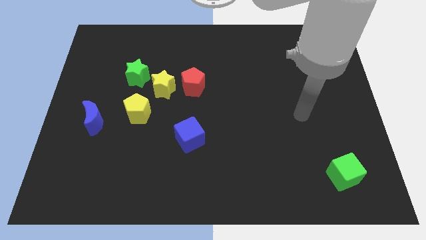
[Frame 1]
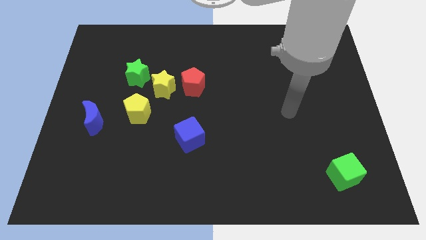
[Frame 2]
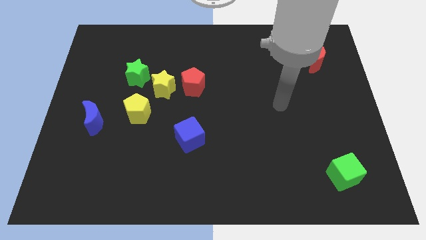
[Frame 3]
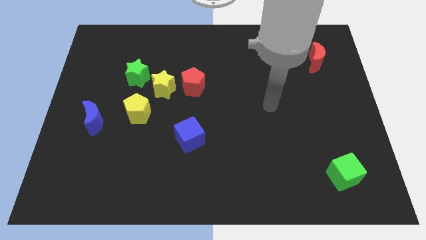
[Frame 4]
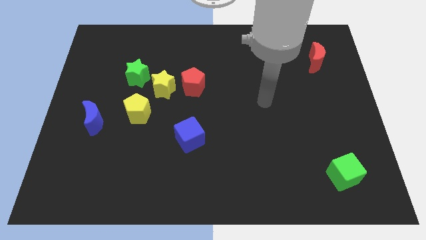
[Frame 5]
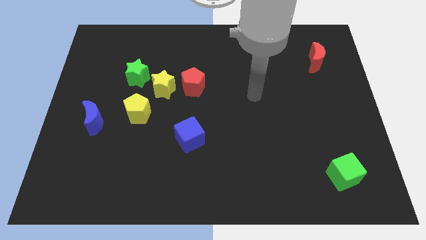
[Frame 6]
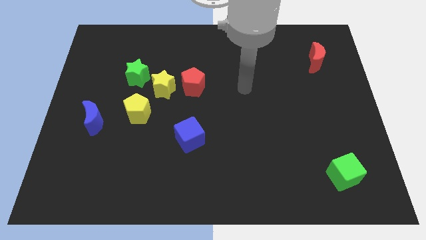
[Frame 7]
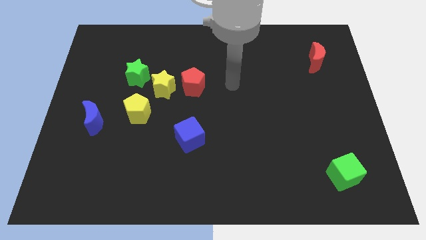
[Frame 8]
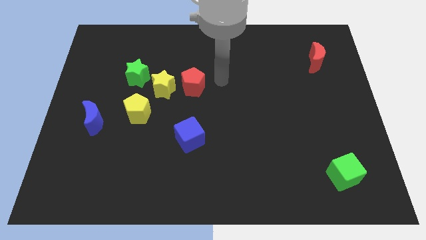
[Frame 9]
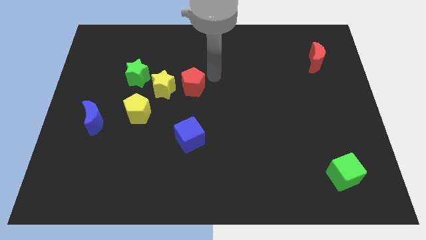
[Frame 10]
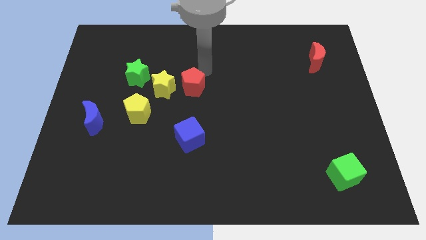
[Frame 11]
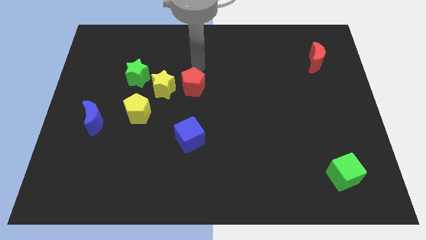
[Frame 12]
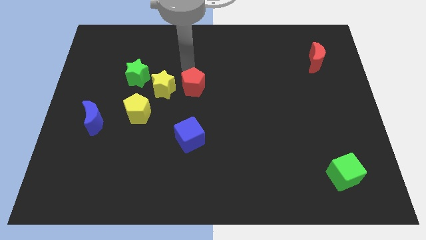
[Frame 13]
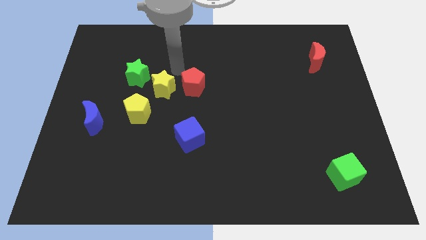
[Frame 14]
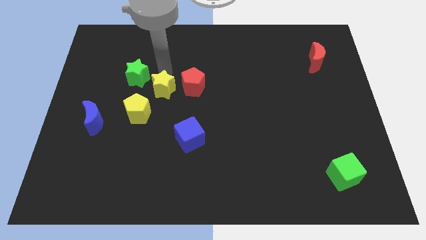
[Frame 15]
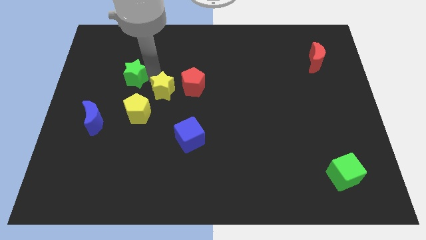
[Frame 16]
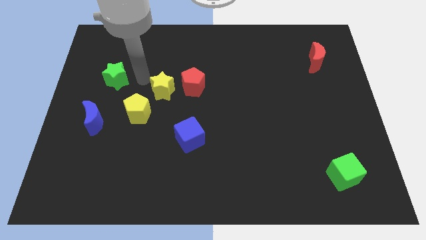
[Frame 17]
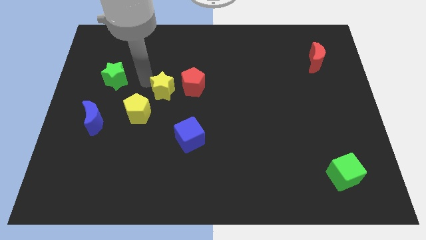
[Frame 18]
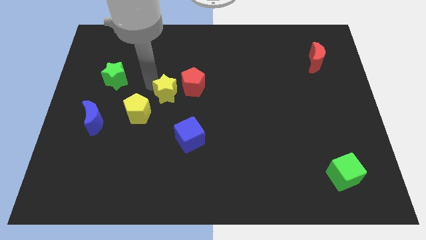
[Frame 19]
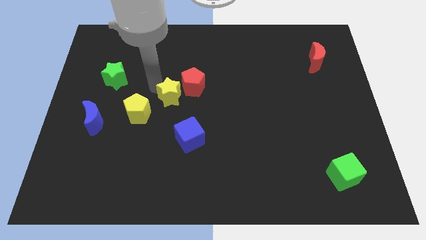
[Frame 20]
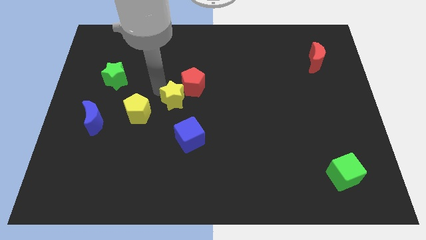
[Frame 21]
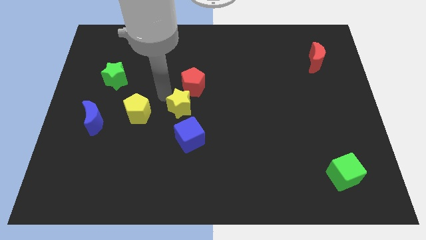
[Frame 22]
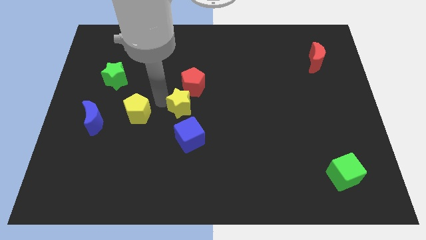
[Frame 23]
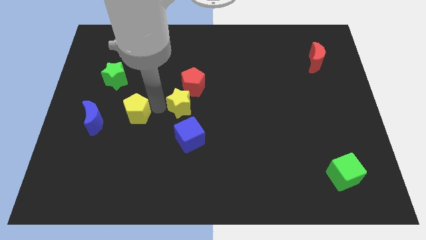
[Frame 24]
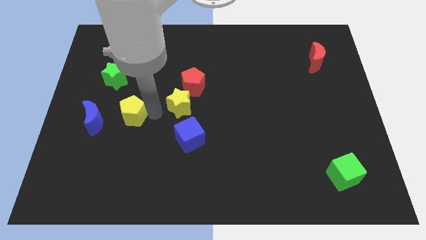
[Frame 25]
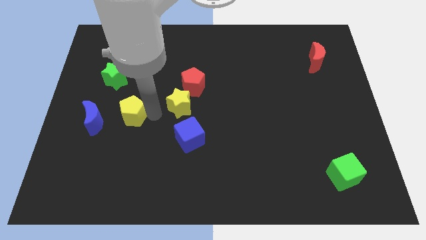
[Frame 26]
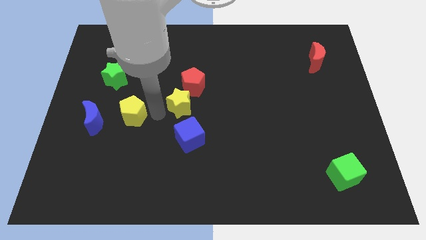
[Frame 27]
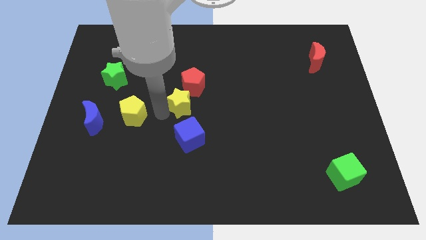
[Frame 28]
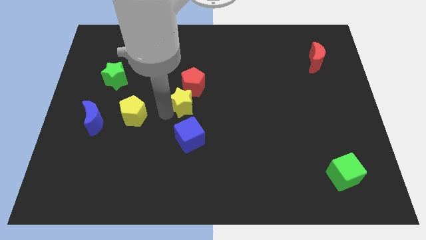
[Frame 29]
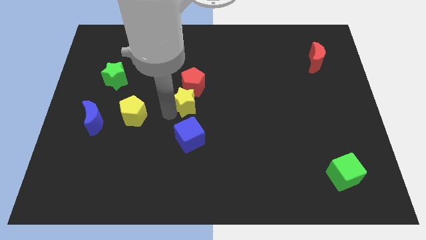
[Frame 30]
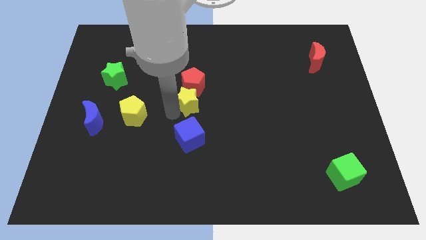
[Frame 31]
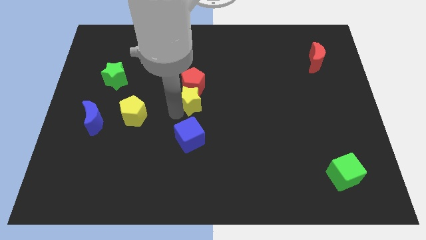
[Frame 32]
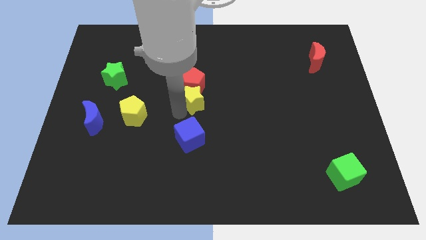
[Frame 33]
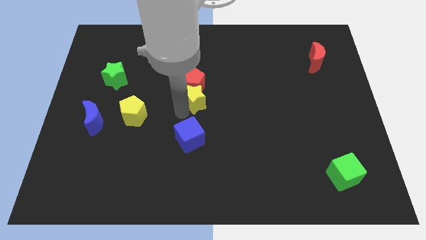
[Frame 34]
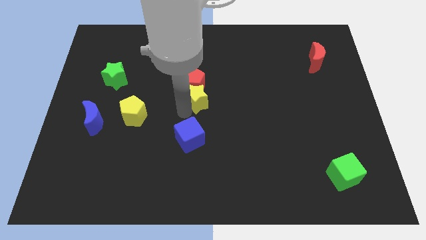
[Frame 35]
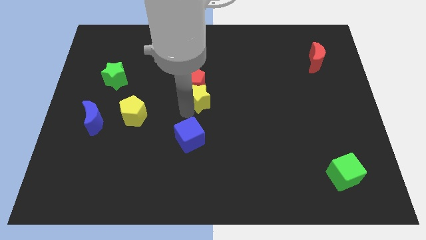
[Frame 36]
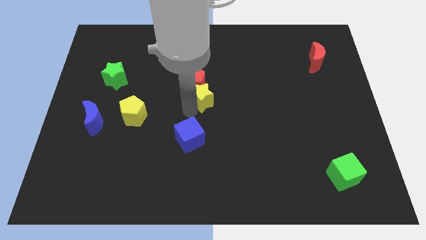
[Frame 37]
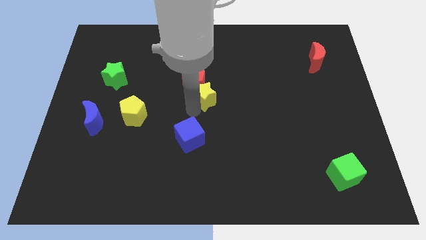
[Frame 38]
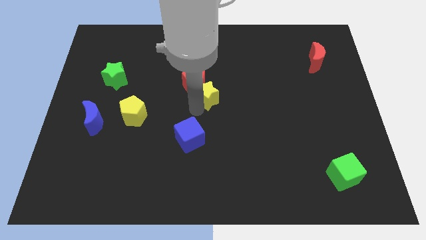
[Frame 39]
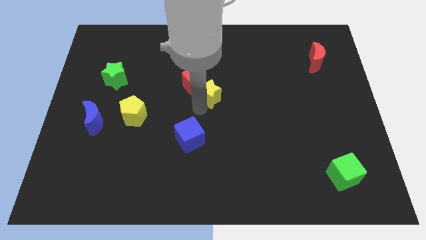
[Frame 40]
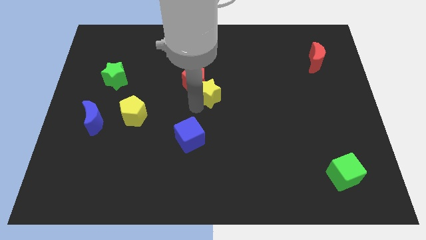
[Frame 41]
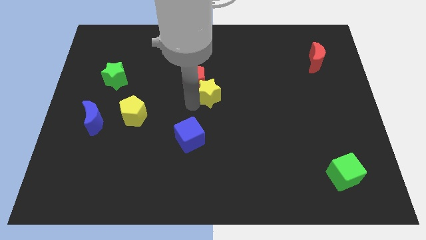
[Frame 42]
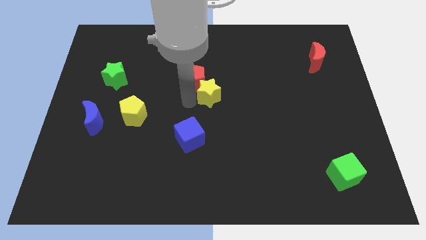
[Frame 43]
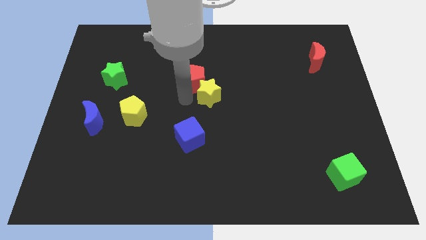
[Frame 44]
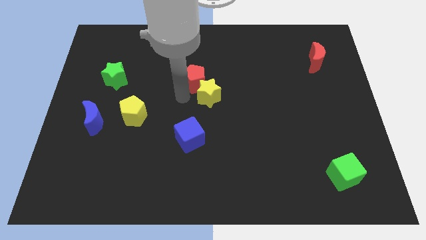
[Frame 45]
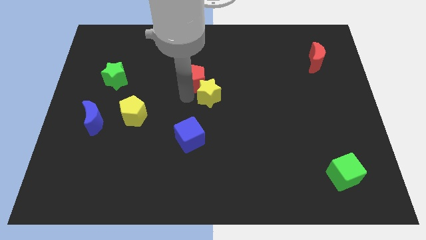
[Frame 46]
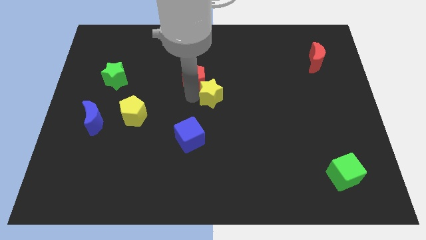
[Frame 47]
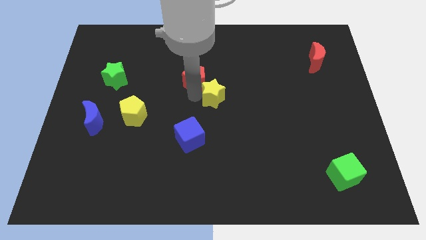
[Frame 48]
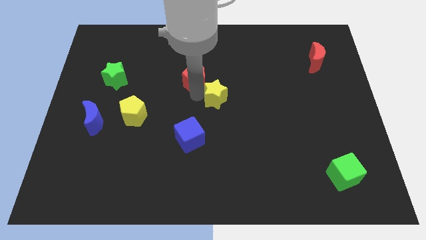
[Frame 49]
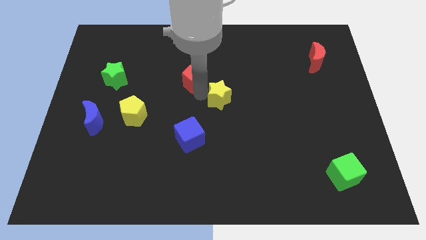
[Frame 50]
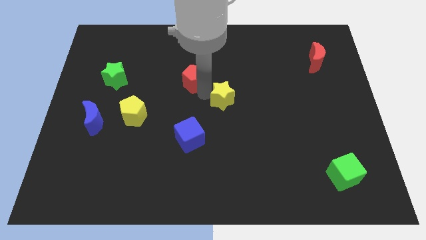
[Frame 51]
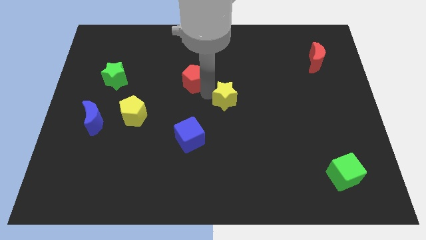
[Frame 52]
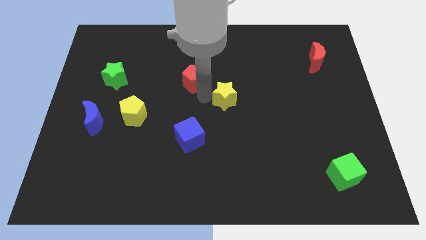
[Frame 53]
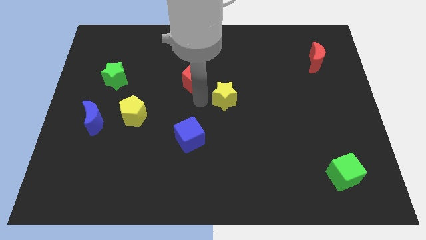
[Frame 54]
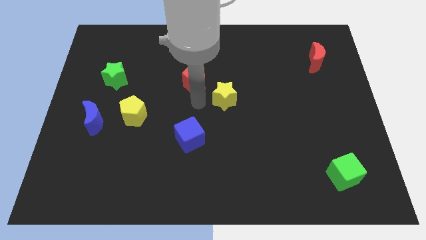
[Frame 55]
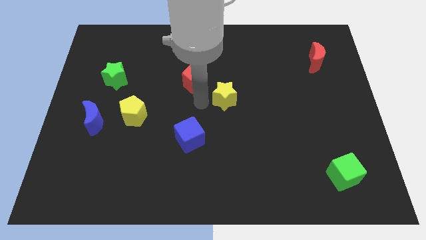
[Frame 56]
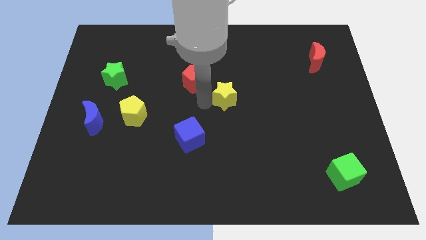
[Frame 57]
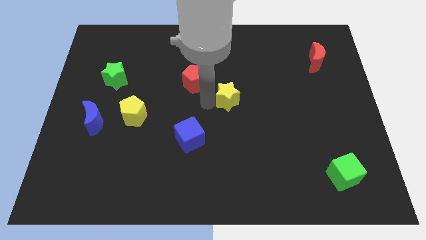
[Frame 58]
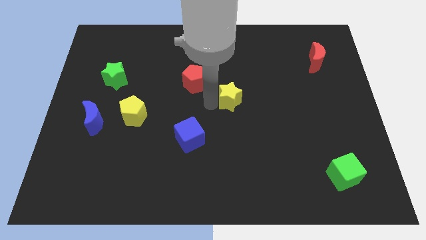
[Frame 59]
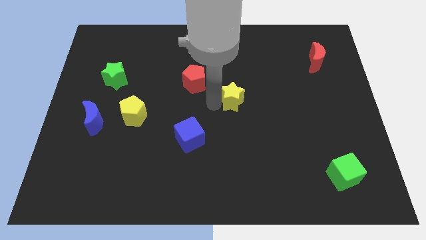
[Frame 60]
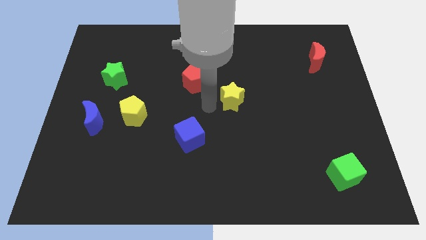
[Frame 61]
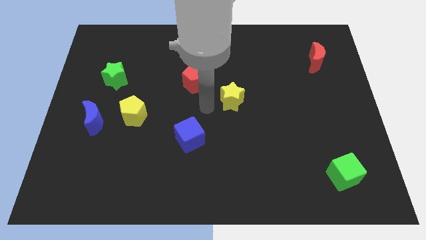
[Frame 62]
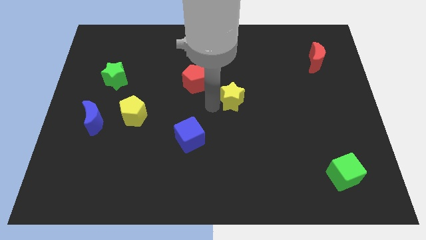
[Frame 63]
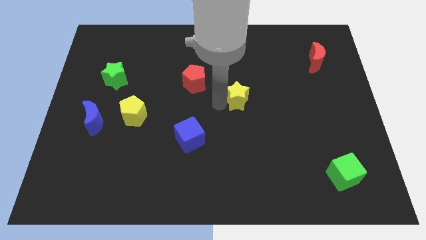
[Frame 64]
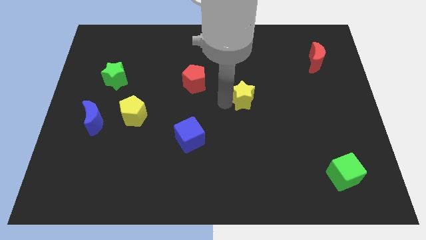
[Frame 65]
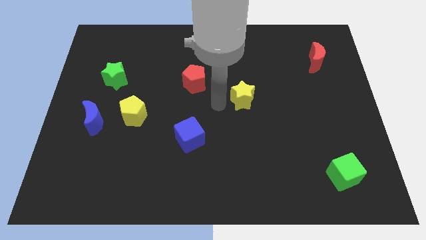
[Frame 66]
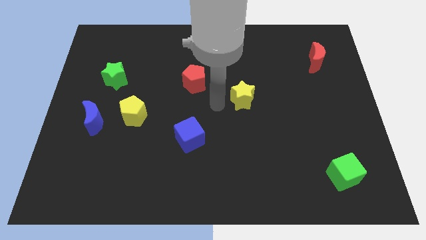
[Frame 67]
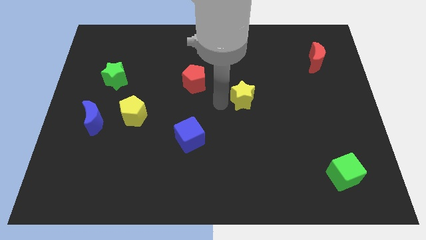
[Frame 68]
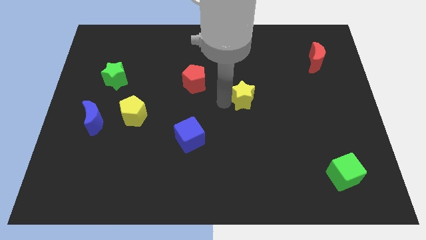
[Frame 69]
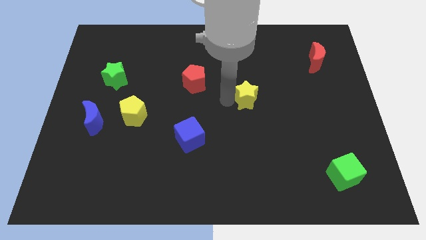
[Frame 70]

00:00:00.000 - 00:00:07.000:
move the yellow star right

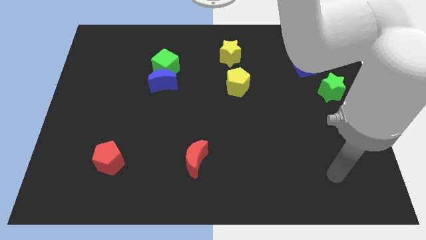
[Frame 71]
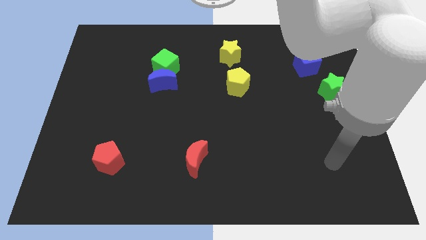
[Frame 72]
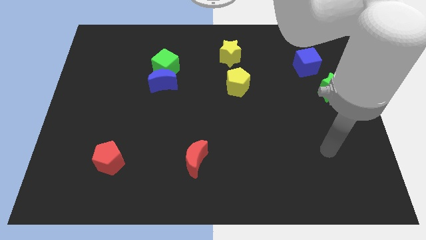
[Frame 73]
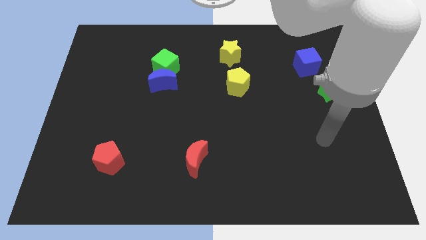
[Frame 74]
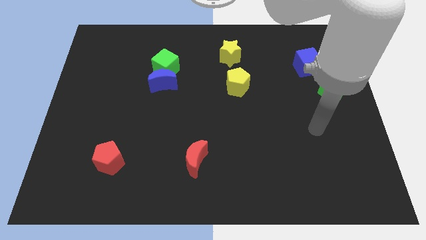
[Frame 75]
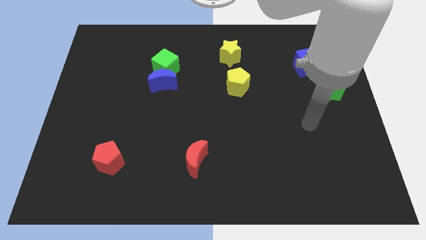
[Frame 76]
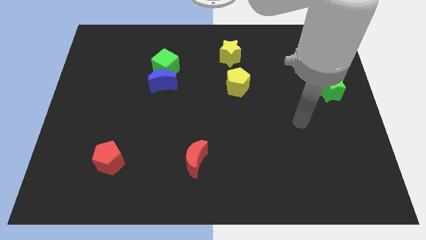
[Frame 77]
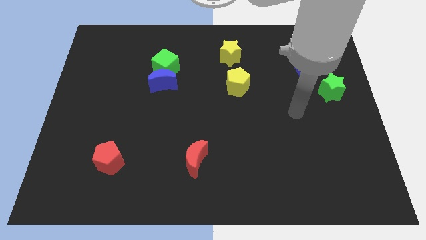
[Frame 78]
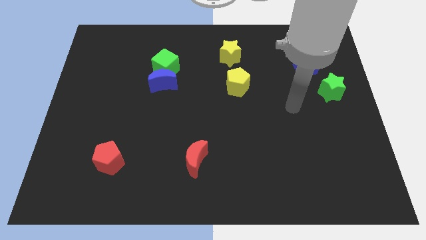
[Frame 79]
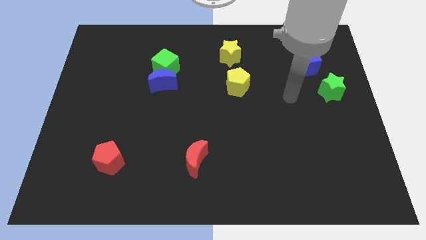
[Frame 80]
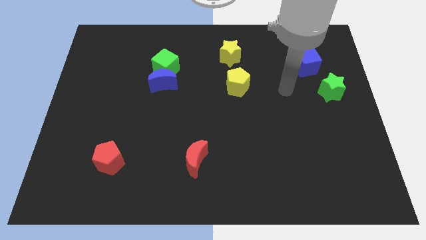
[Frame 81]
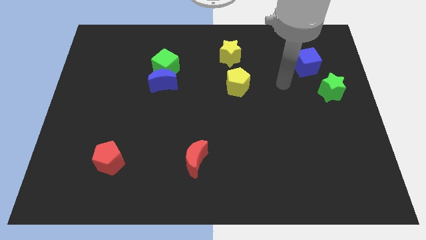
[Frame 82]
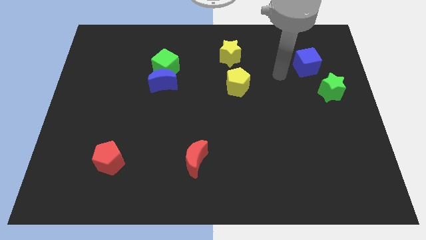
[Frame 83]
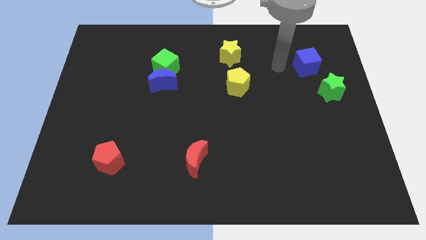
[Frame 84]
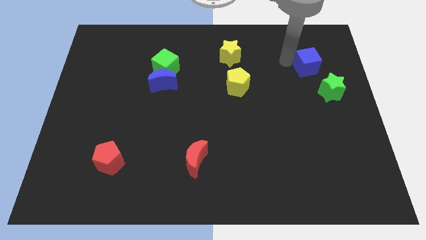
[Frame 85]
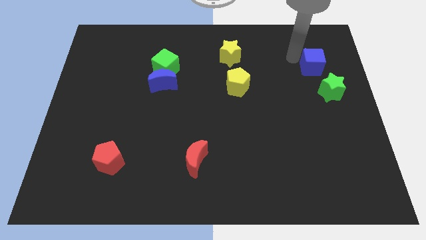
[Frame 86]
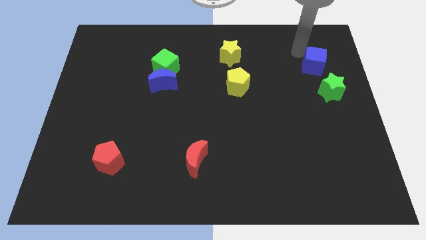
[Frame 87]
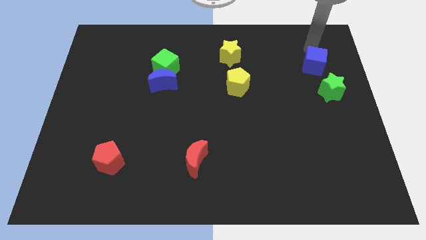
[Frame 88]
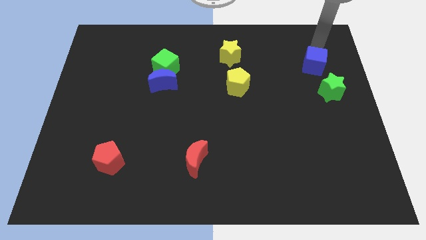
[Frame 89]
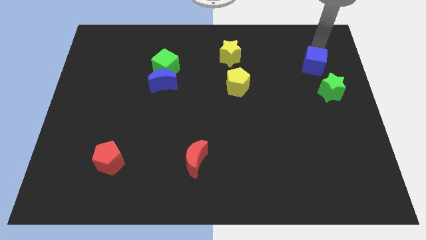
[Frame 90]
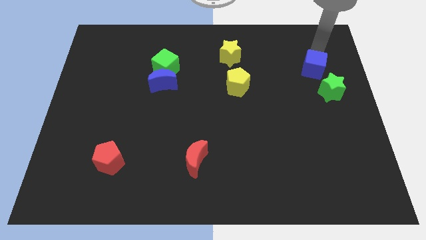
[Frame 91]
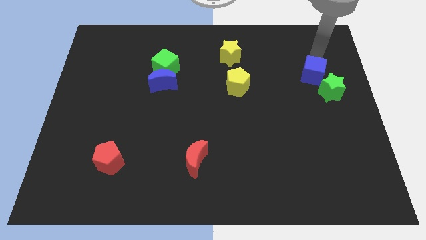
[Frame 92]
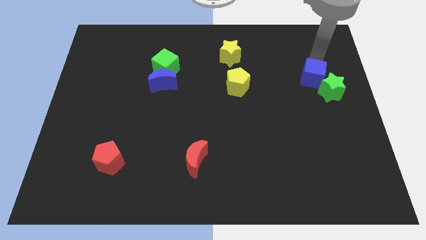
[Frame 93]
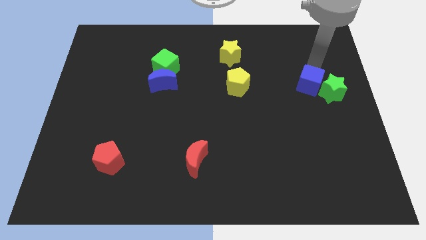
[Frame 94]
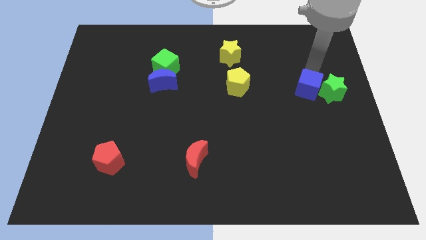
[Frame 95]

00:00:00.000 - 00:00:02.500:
push the blue cube a little bit downwards
